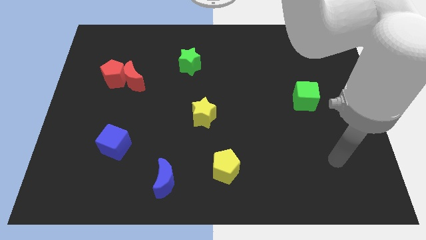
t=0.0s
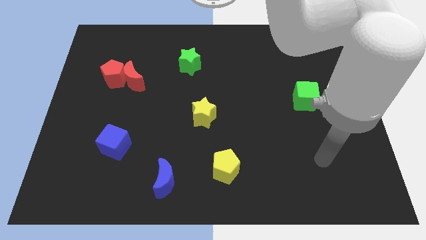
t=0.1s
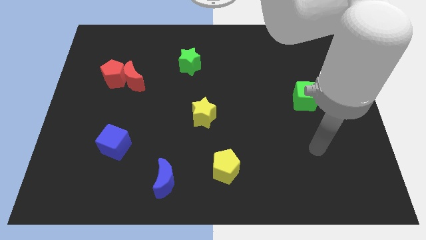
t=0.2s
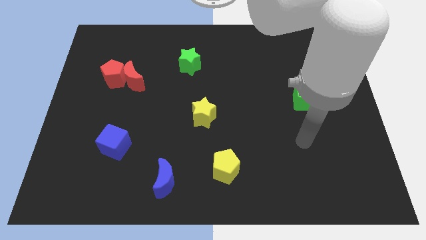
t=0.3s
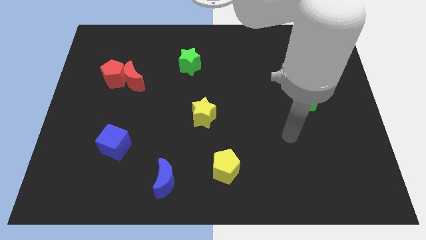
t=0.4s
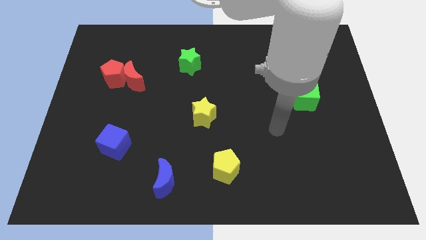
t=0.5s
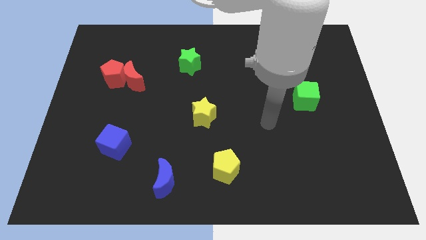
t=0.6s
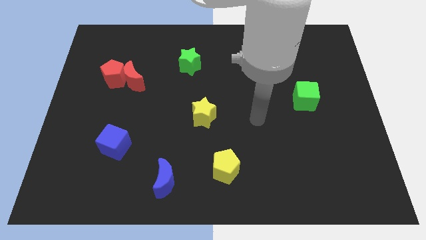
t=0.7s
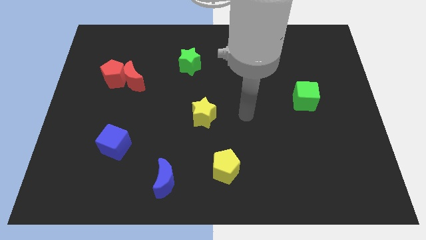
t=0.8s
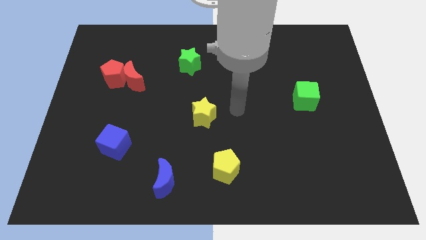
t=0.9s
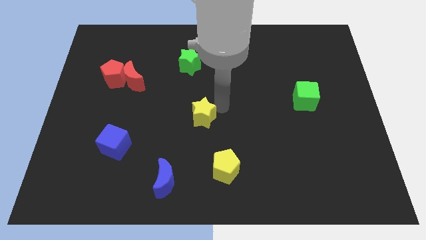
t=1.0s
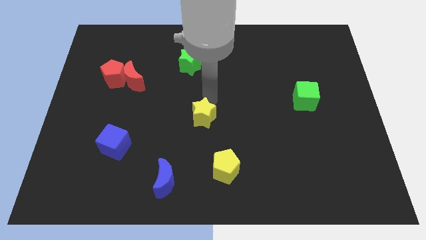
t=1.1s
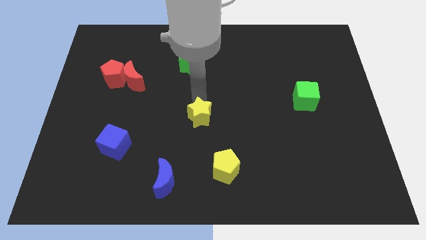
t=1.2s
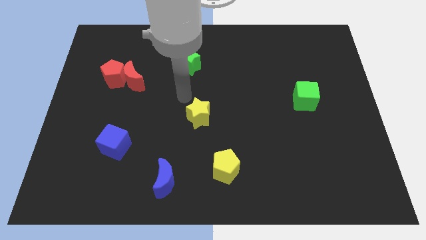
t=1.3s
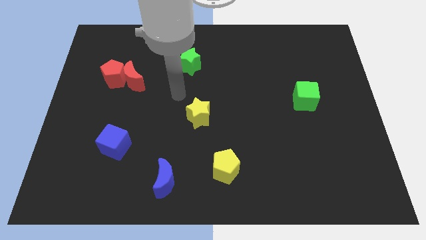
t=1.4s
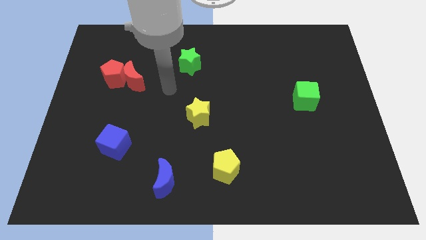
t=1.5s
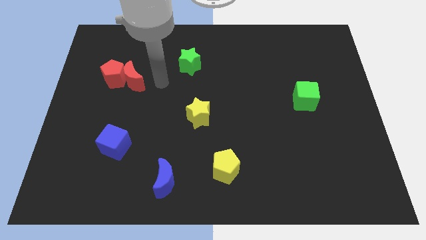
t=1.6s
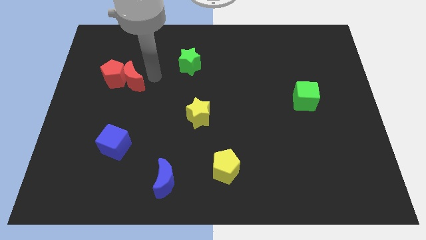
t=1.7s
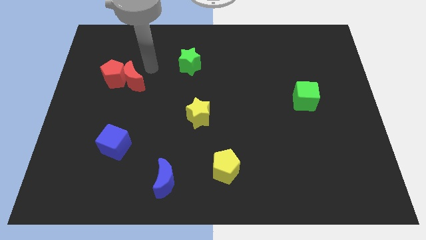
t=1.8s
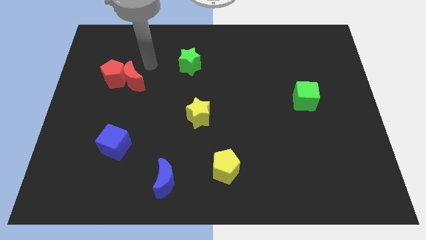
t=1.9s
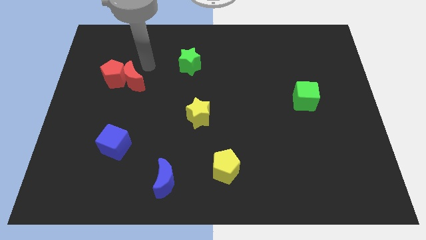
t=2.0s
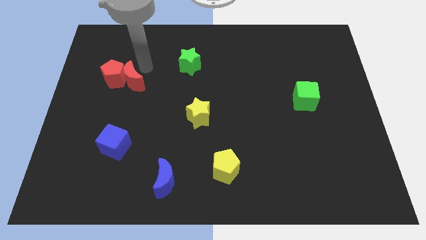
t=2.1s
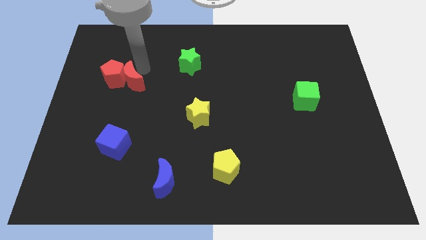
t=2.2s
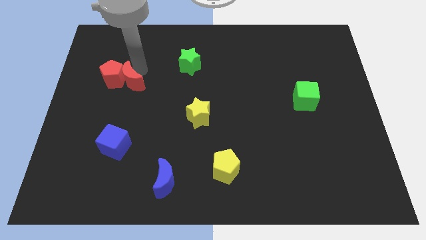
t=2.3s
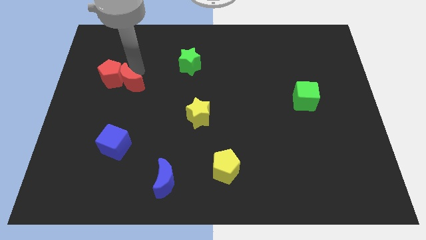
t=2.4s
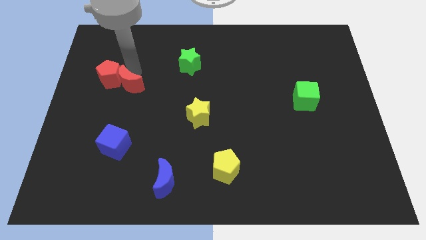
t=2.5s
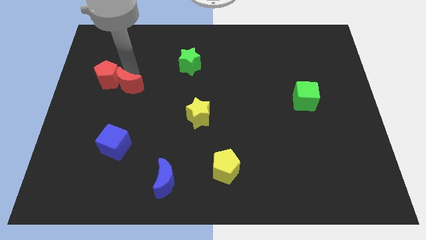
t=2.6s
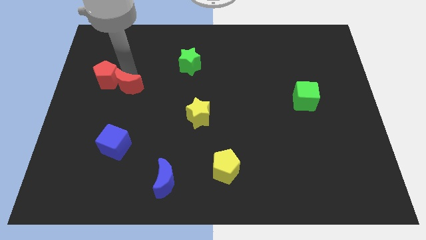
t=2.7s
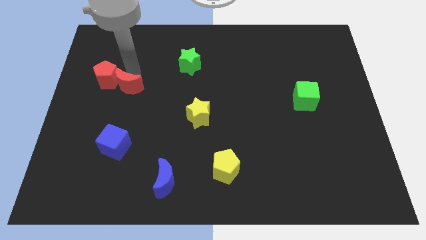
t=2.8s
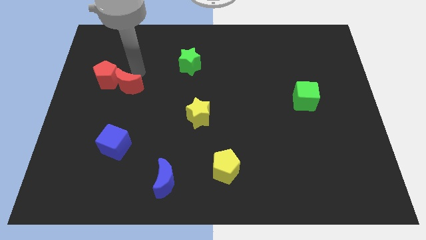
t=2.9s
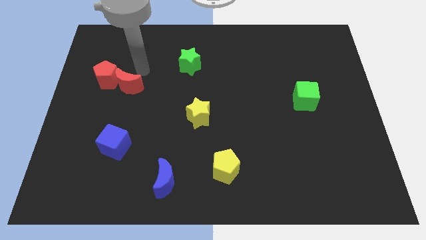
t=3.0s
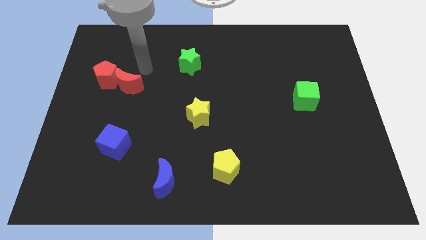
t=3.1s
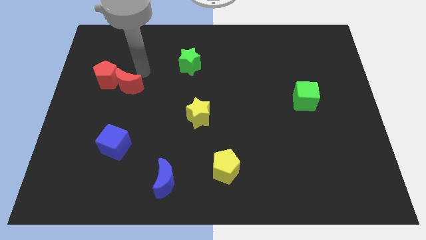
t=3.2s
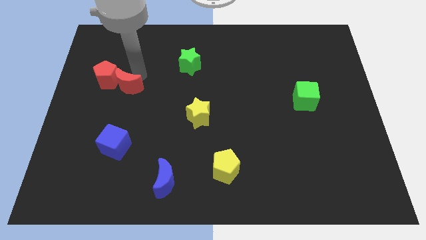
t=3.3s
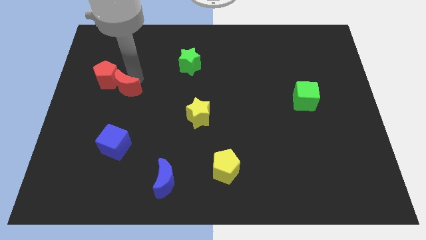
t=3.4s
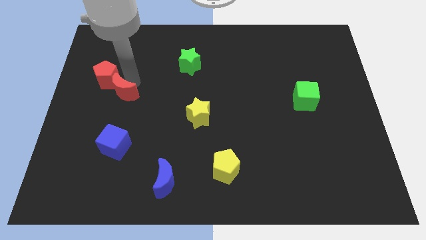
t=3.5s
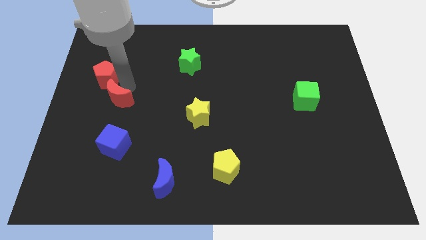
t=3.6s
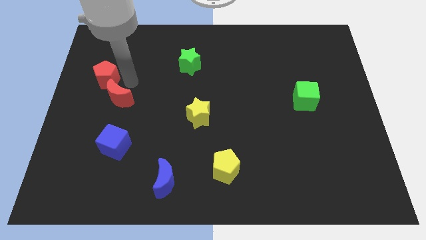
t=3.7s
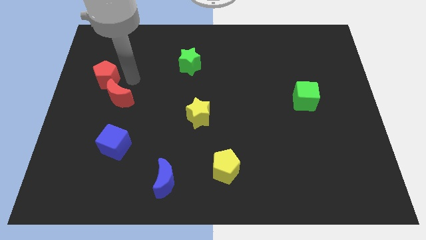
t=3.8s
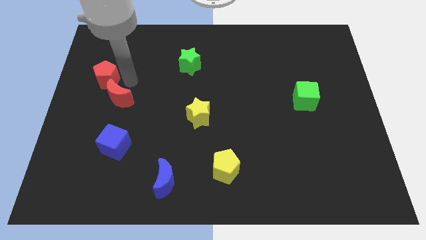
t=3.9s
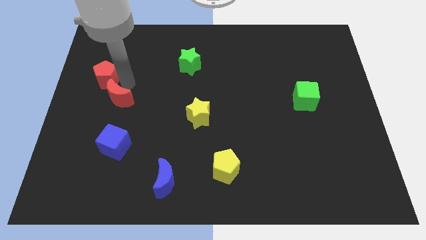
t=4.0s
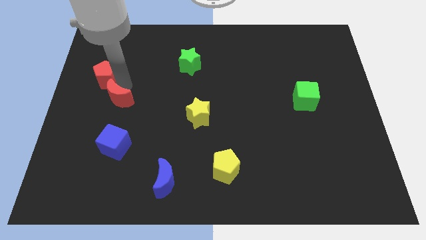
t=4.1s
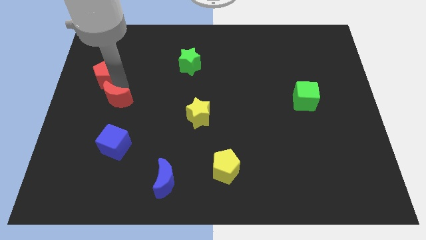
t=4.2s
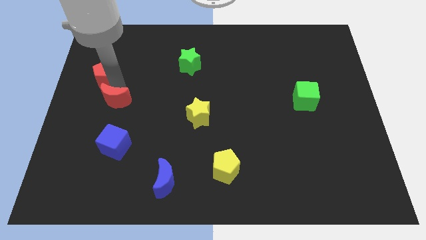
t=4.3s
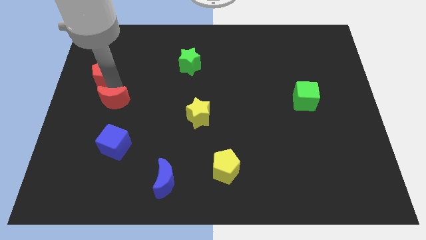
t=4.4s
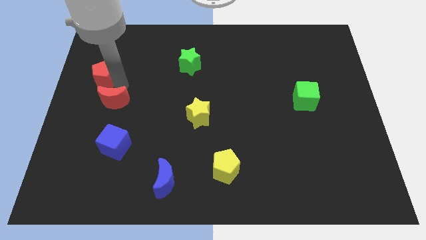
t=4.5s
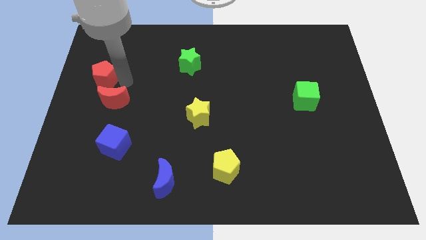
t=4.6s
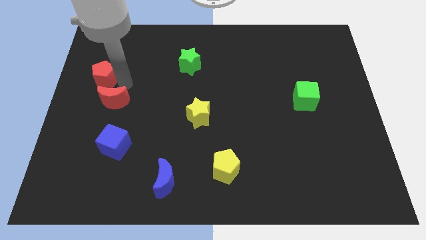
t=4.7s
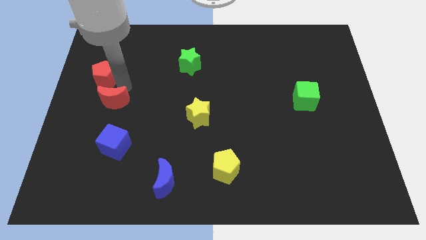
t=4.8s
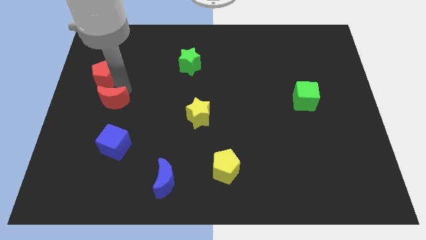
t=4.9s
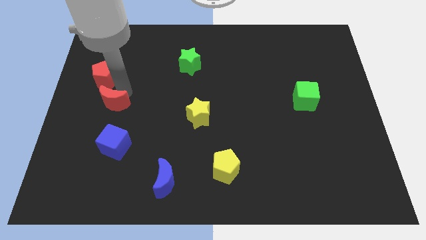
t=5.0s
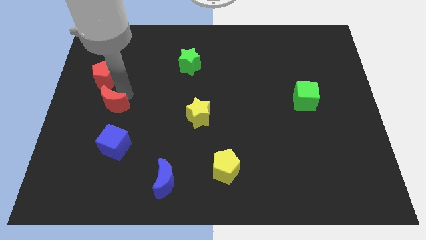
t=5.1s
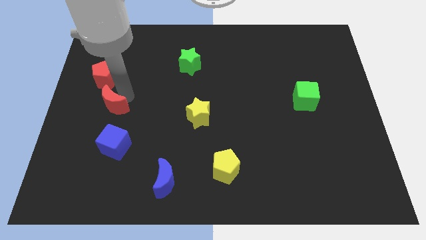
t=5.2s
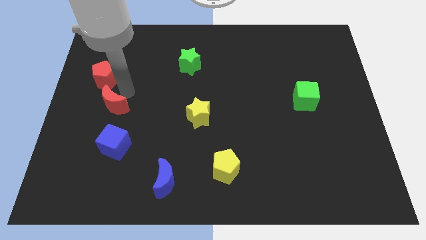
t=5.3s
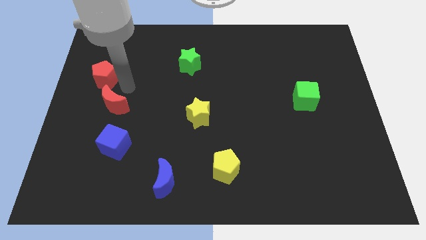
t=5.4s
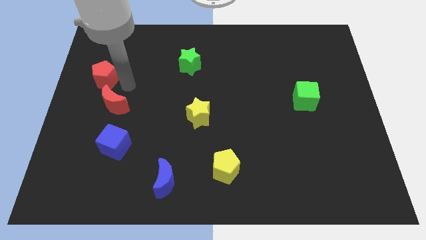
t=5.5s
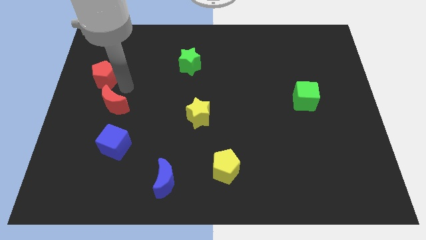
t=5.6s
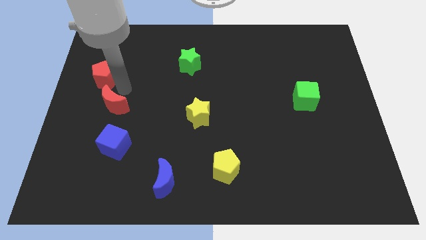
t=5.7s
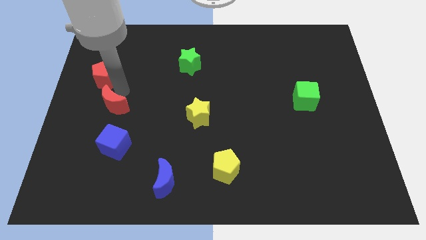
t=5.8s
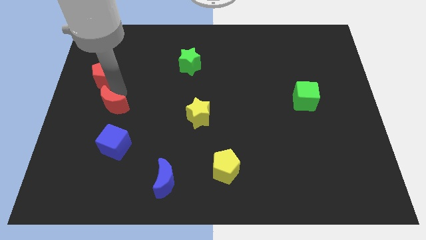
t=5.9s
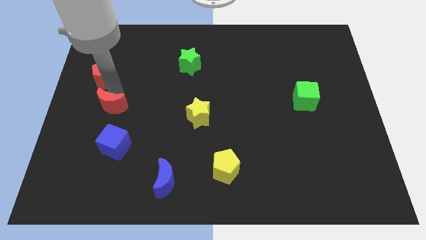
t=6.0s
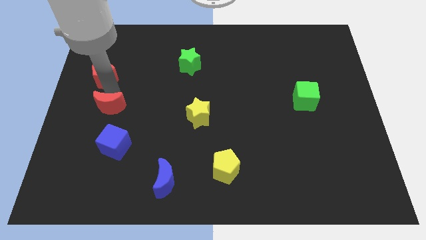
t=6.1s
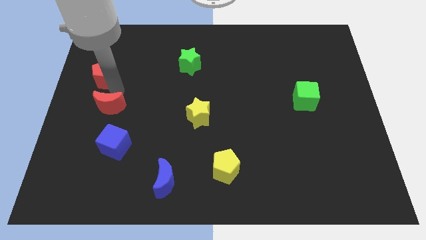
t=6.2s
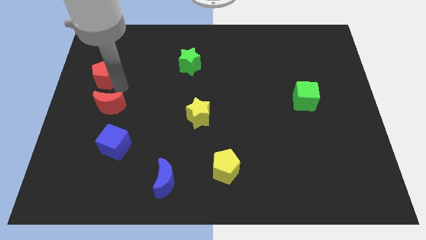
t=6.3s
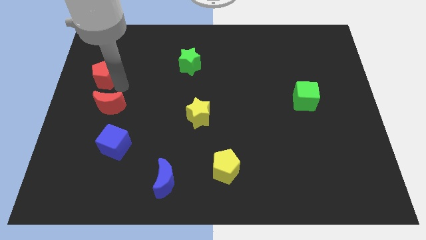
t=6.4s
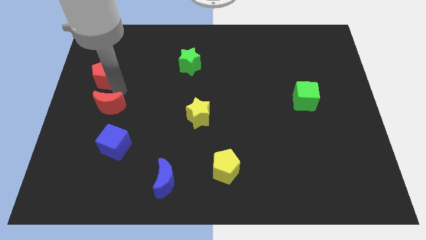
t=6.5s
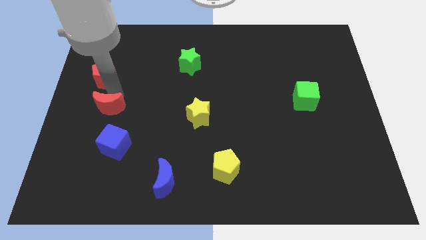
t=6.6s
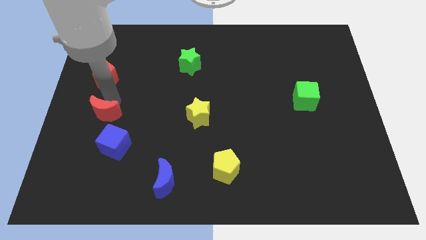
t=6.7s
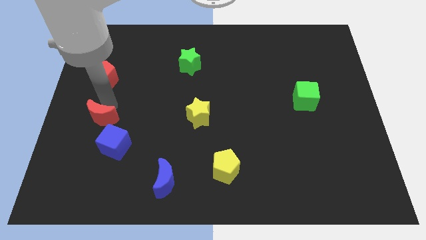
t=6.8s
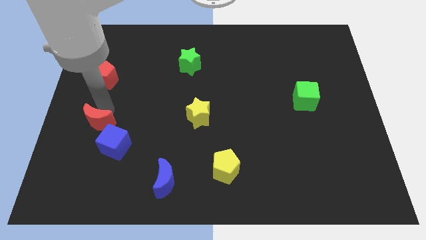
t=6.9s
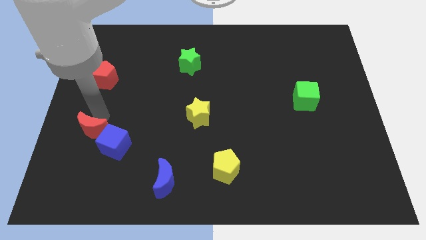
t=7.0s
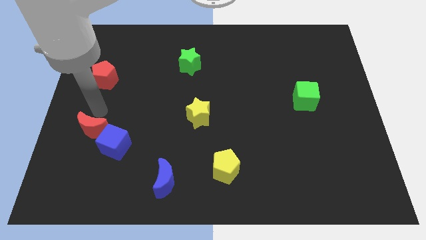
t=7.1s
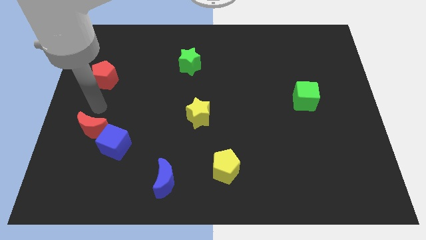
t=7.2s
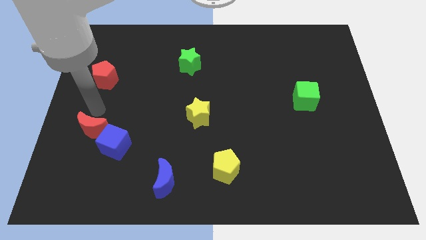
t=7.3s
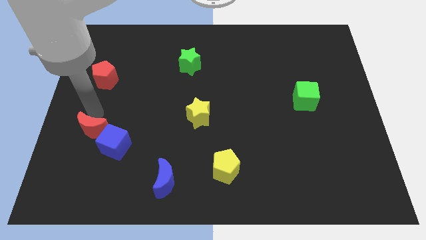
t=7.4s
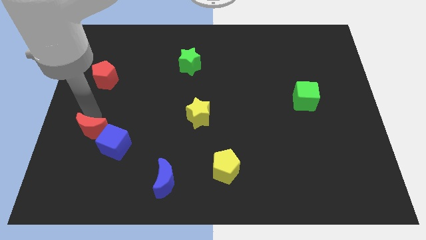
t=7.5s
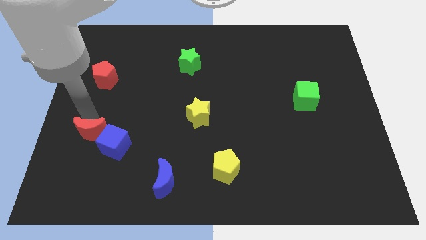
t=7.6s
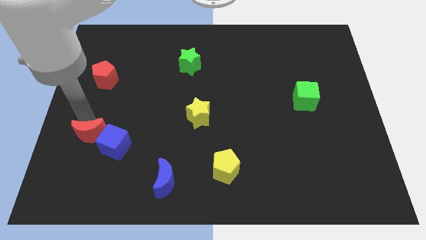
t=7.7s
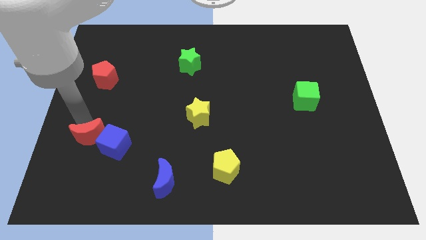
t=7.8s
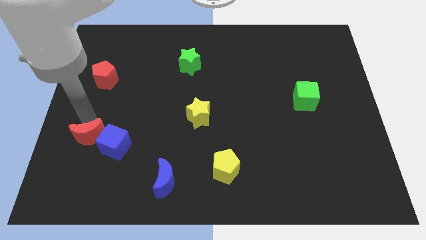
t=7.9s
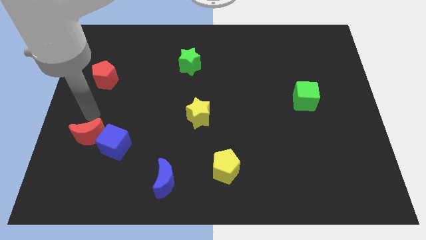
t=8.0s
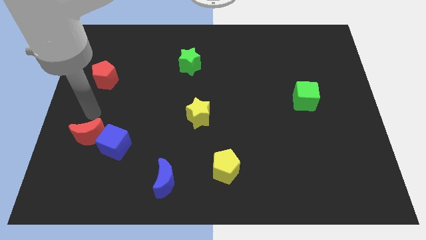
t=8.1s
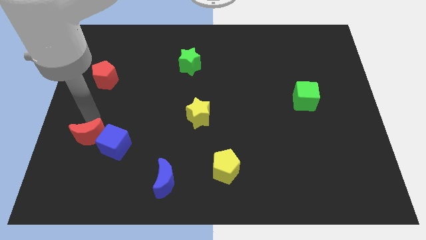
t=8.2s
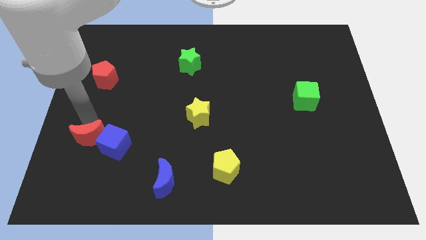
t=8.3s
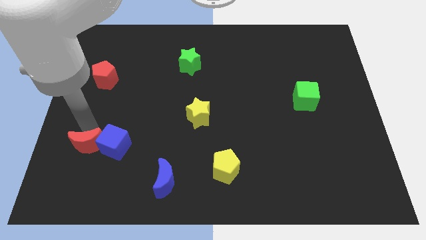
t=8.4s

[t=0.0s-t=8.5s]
slide the red moon to the bottom left of the blue cube
